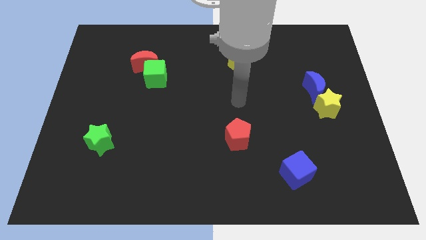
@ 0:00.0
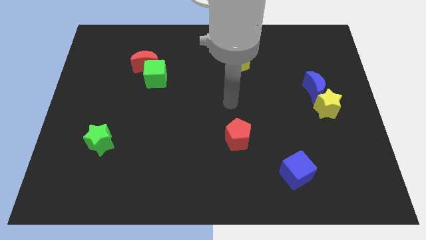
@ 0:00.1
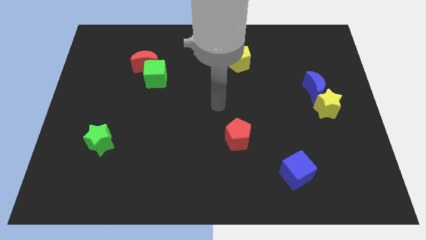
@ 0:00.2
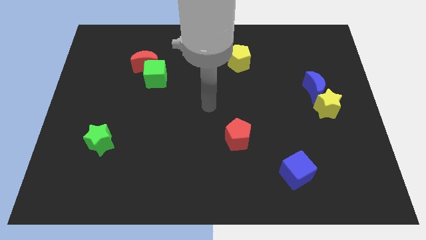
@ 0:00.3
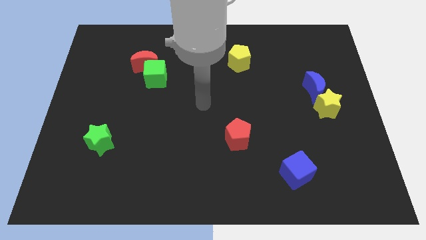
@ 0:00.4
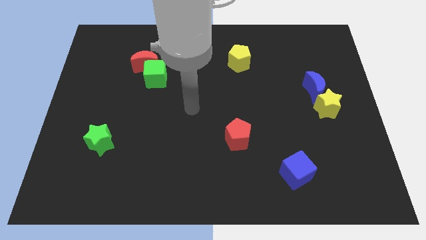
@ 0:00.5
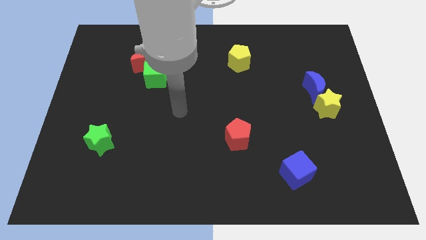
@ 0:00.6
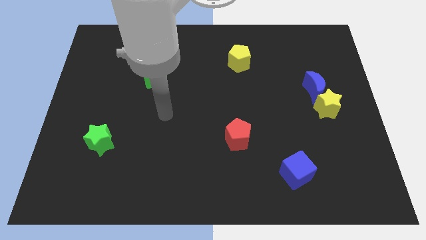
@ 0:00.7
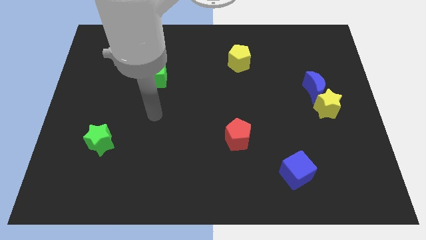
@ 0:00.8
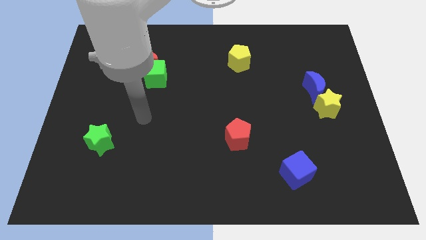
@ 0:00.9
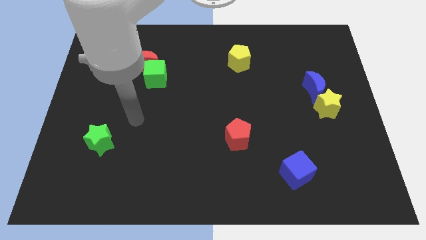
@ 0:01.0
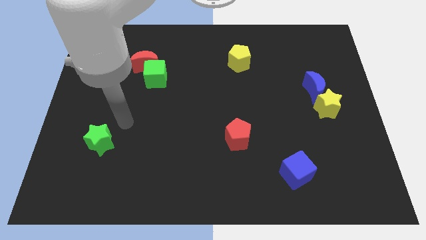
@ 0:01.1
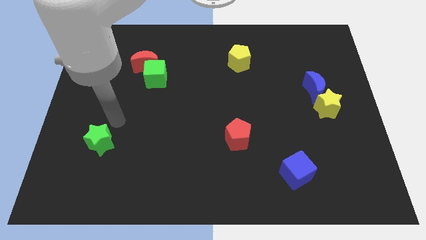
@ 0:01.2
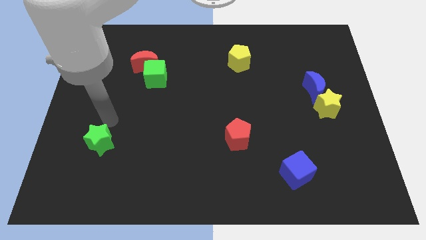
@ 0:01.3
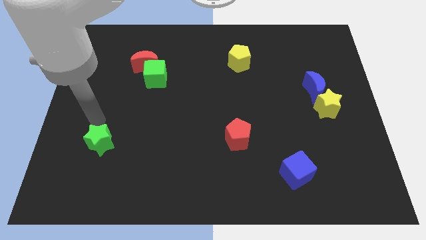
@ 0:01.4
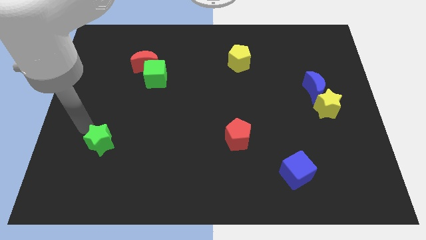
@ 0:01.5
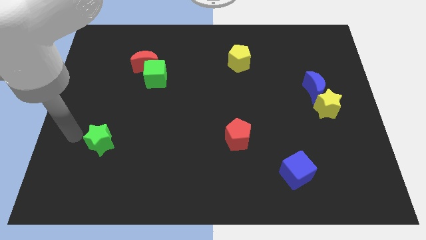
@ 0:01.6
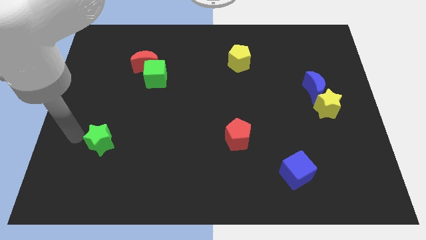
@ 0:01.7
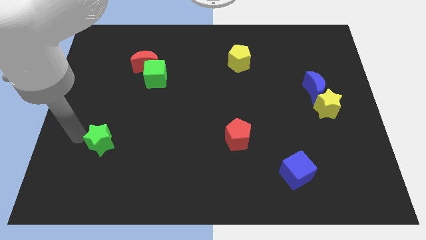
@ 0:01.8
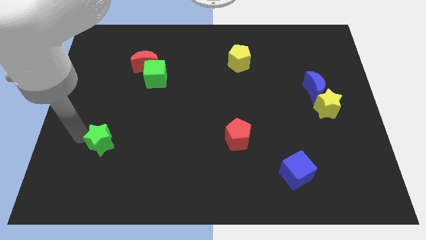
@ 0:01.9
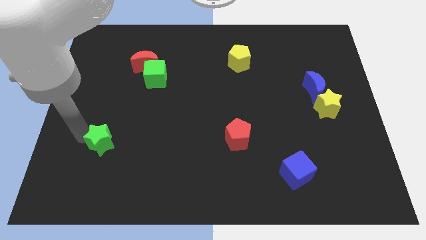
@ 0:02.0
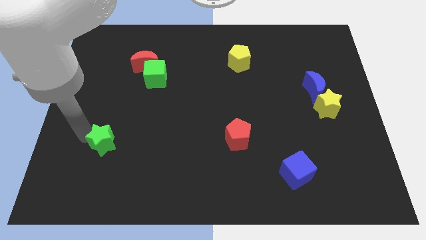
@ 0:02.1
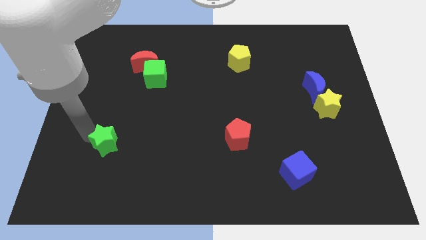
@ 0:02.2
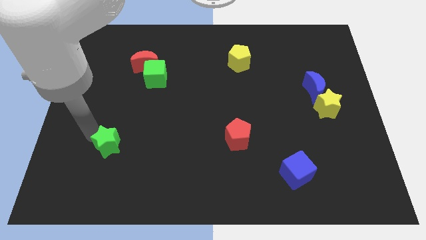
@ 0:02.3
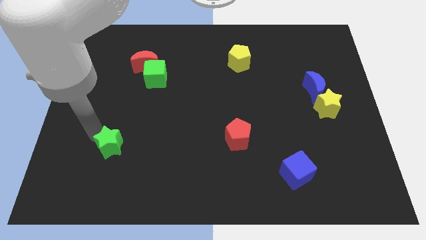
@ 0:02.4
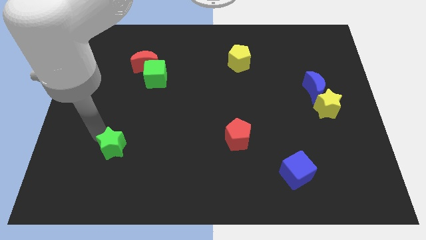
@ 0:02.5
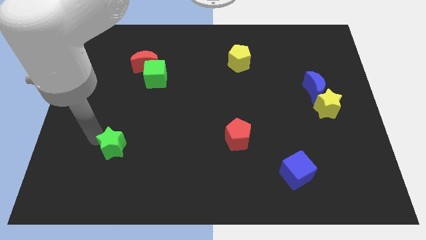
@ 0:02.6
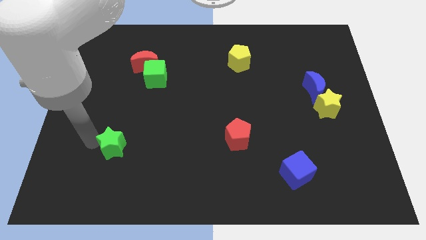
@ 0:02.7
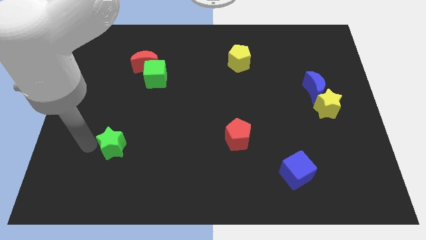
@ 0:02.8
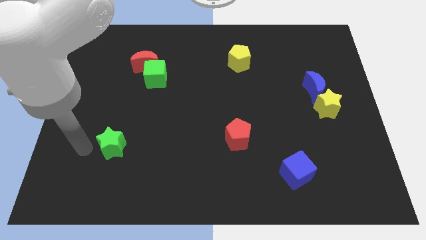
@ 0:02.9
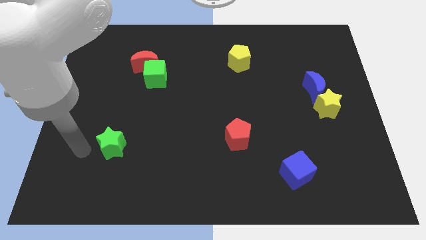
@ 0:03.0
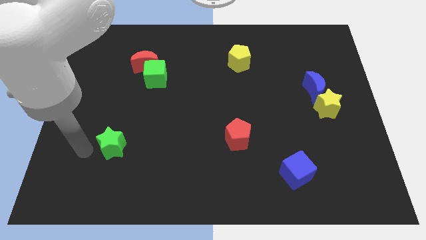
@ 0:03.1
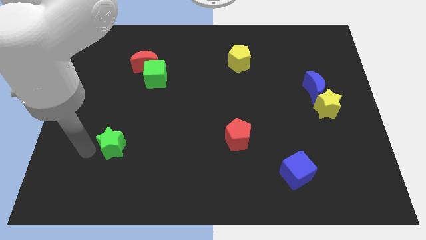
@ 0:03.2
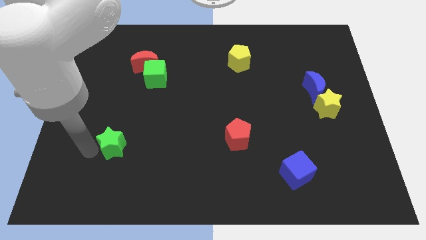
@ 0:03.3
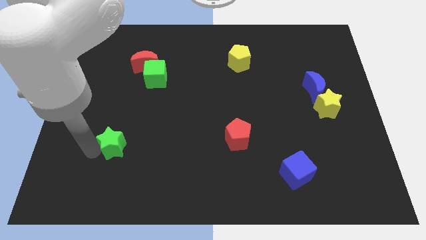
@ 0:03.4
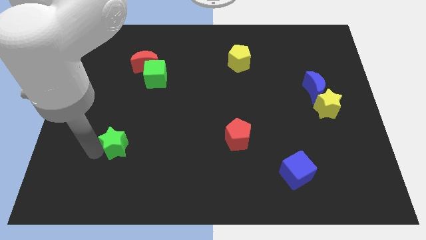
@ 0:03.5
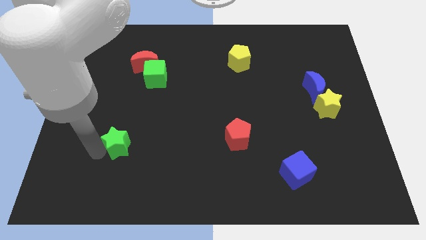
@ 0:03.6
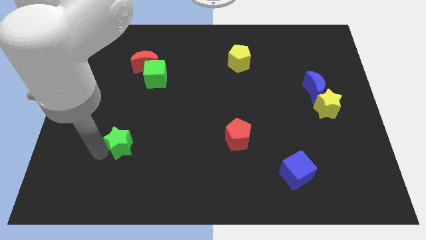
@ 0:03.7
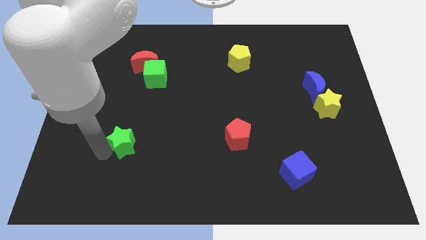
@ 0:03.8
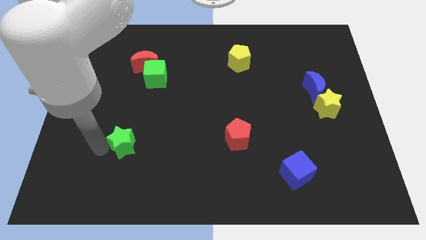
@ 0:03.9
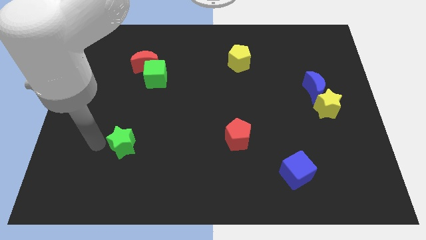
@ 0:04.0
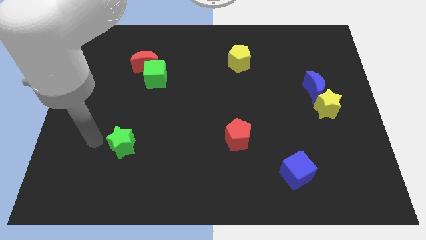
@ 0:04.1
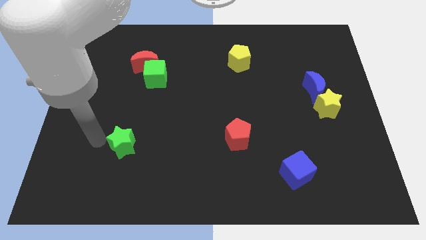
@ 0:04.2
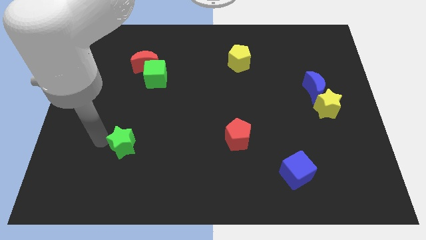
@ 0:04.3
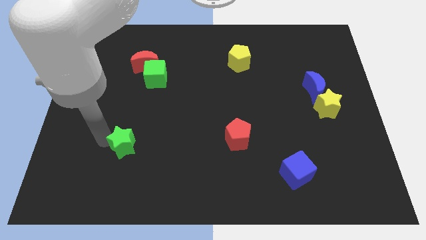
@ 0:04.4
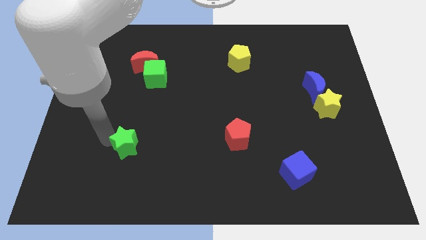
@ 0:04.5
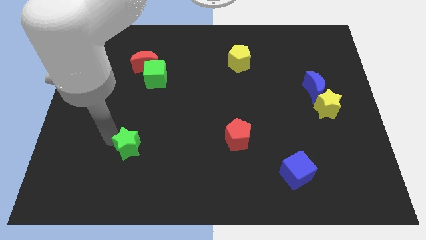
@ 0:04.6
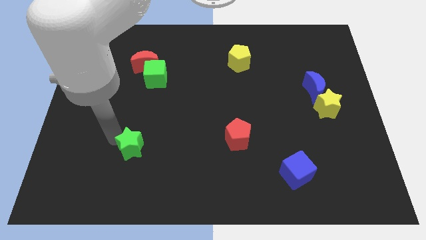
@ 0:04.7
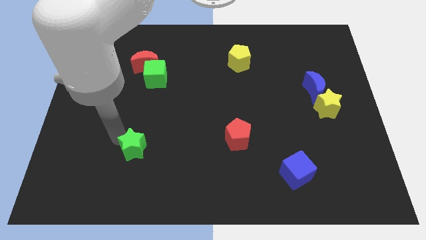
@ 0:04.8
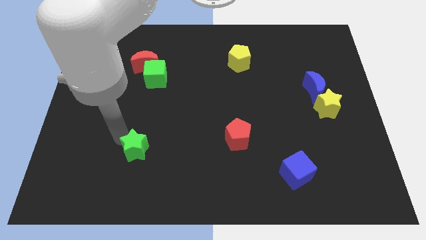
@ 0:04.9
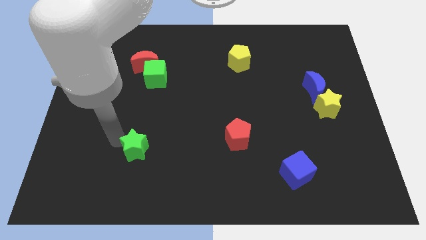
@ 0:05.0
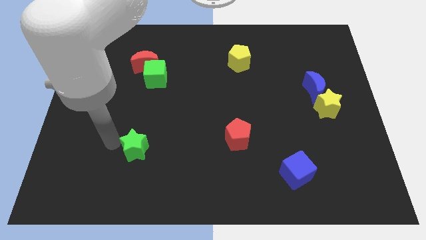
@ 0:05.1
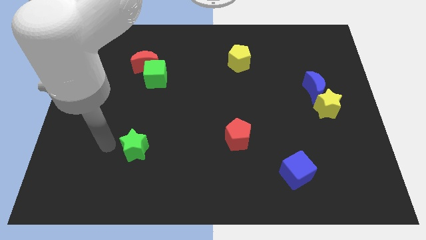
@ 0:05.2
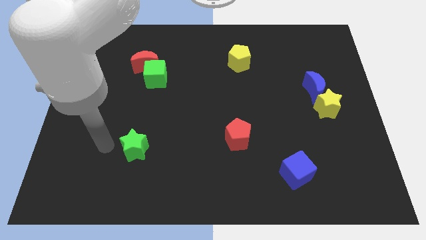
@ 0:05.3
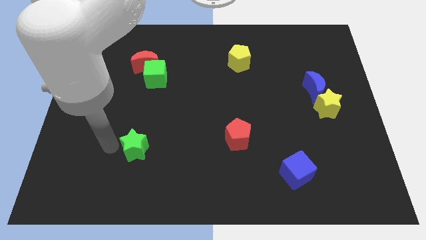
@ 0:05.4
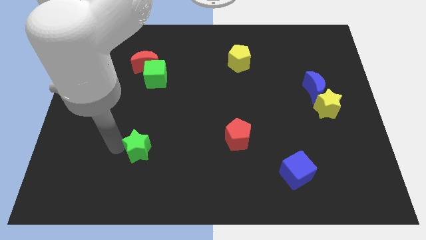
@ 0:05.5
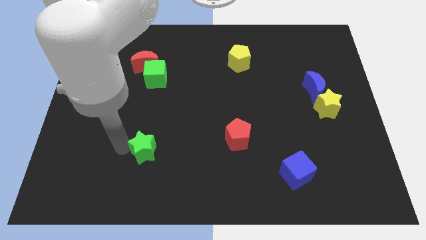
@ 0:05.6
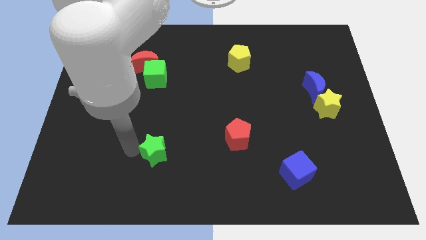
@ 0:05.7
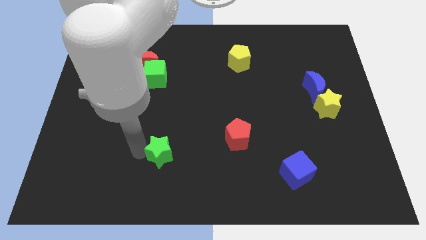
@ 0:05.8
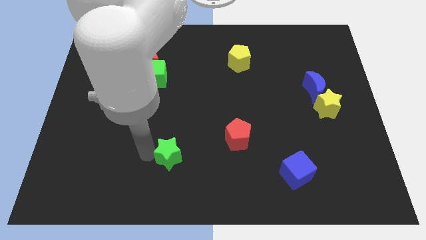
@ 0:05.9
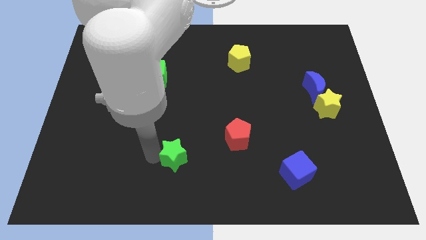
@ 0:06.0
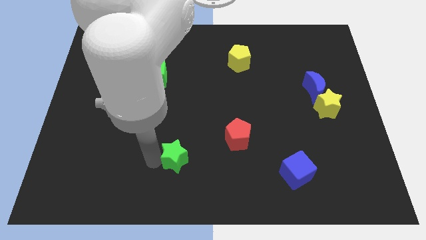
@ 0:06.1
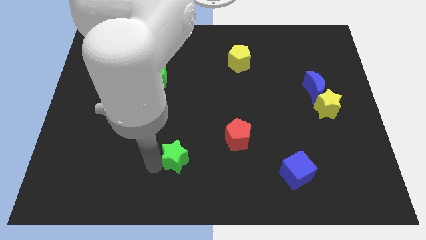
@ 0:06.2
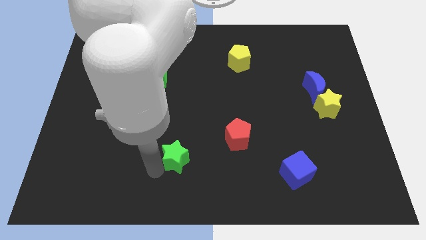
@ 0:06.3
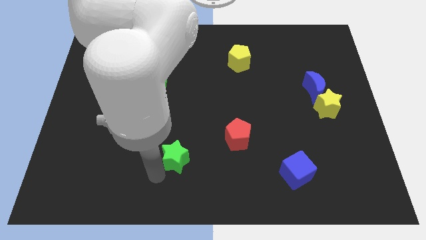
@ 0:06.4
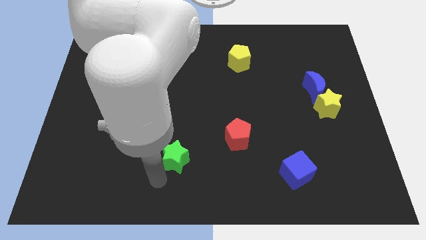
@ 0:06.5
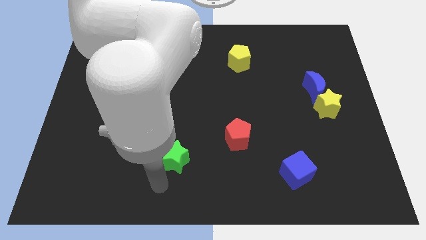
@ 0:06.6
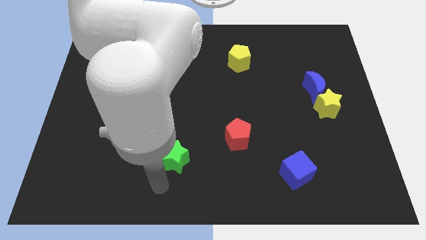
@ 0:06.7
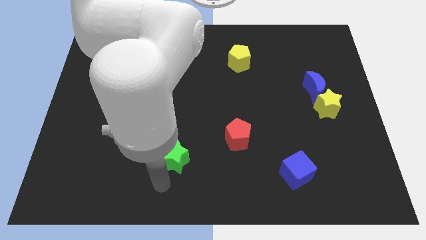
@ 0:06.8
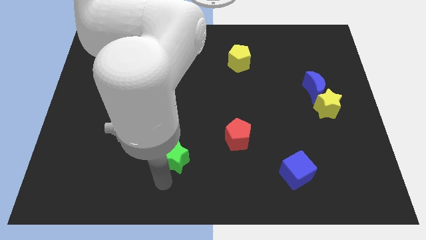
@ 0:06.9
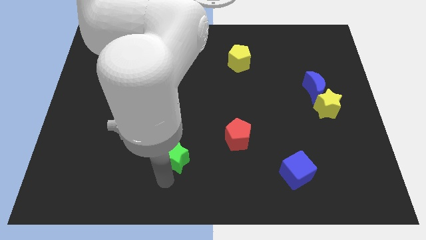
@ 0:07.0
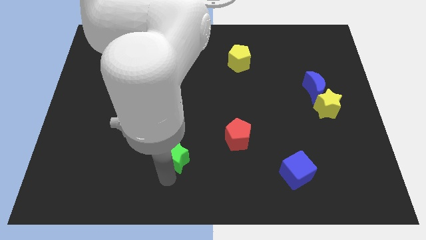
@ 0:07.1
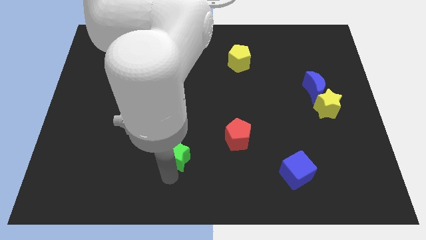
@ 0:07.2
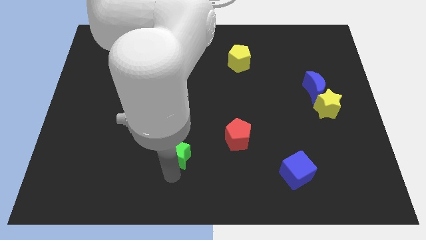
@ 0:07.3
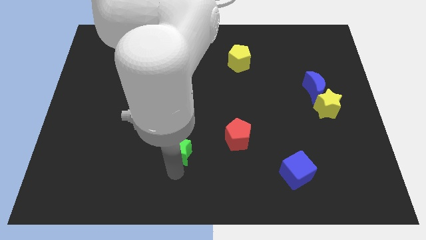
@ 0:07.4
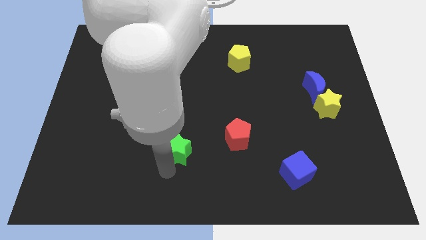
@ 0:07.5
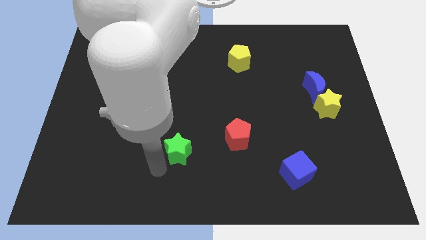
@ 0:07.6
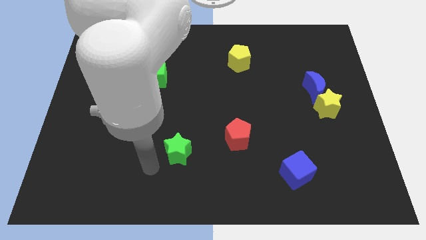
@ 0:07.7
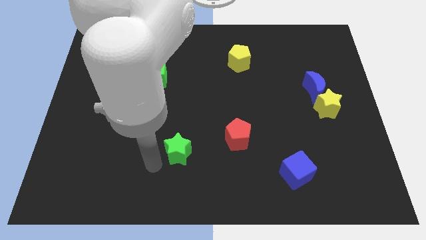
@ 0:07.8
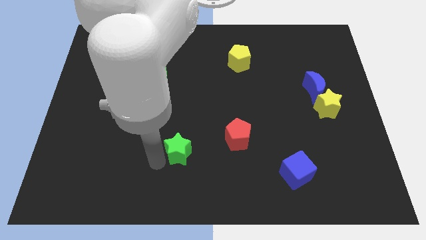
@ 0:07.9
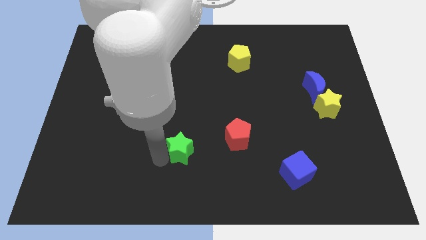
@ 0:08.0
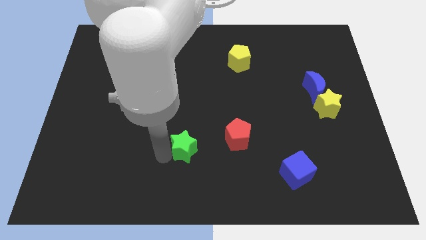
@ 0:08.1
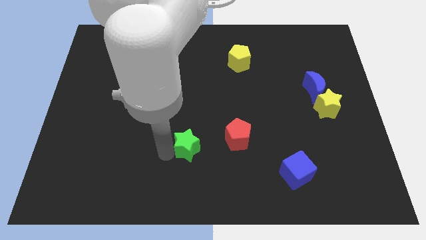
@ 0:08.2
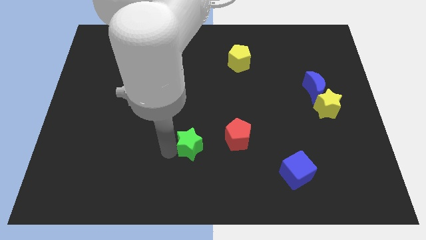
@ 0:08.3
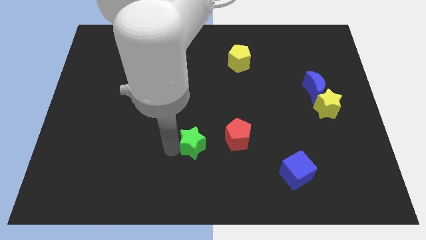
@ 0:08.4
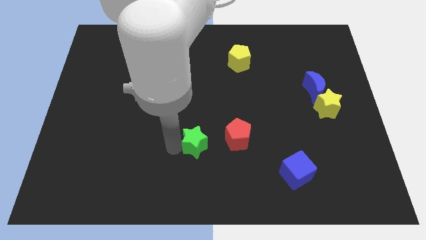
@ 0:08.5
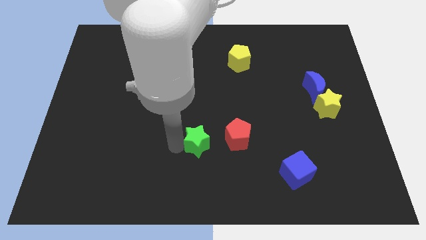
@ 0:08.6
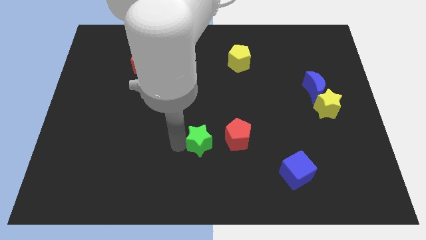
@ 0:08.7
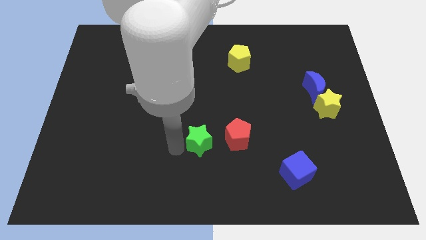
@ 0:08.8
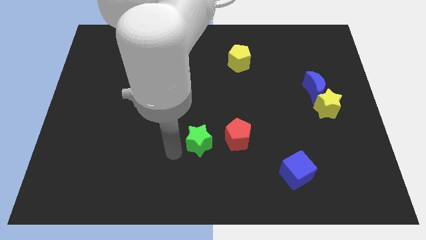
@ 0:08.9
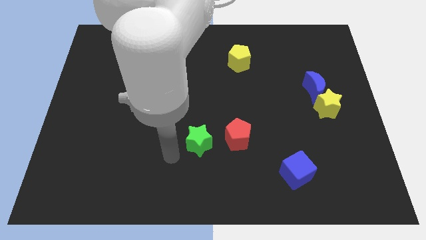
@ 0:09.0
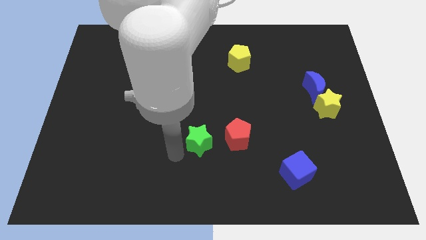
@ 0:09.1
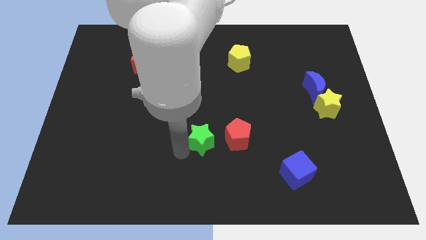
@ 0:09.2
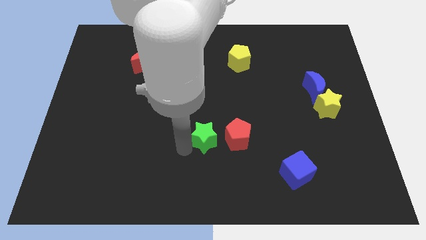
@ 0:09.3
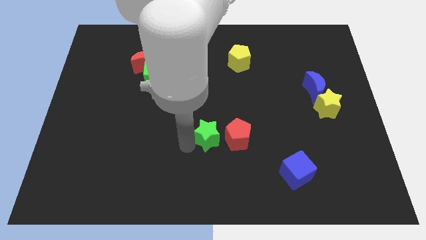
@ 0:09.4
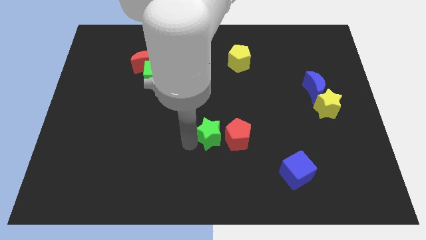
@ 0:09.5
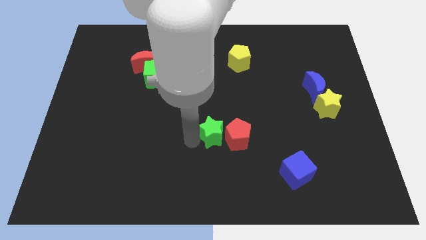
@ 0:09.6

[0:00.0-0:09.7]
put the green star to the red pentagon
